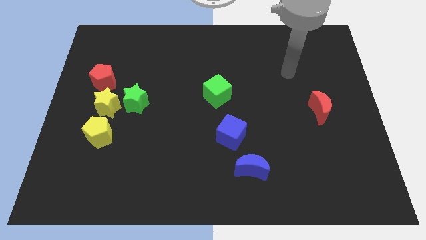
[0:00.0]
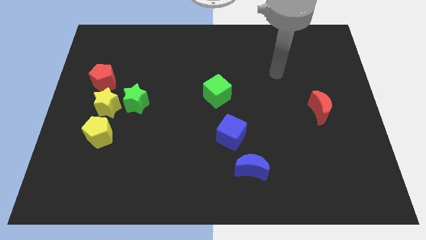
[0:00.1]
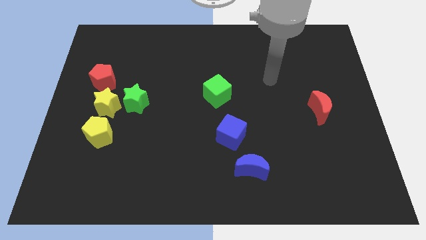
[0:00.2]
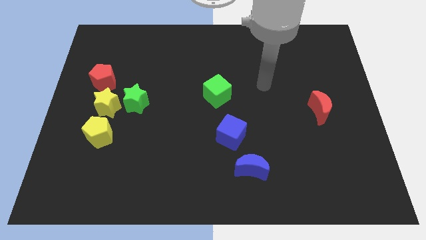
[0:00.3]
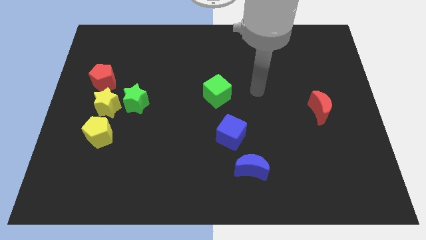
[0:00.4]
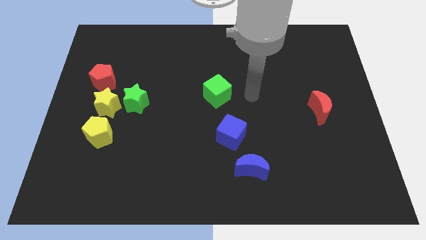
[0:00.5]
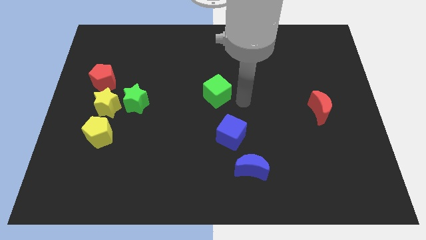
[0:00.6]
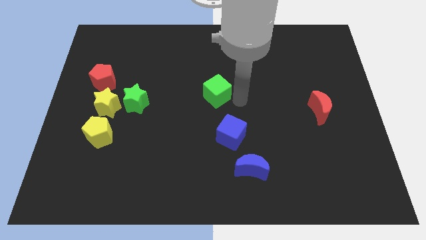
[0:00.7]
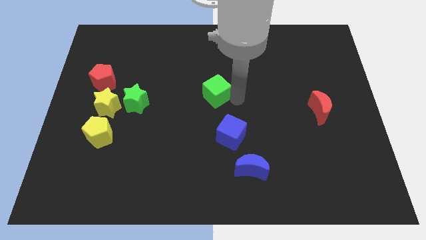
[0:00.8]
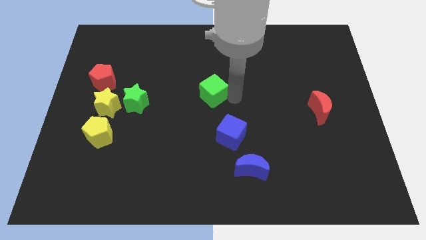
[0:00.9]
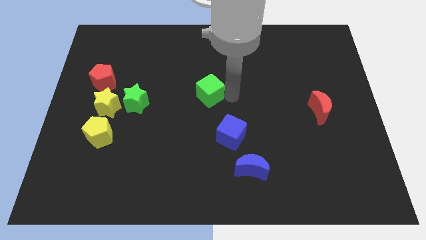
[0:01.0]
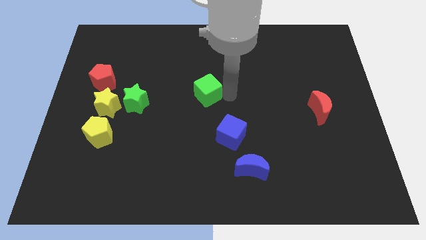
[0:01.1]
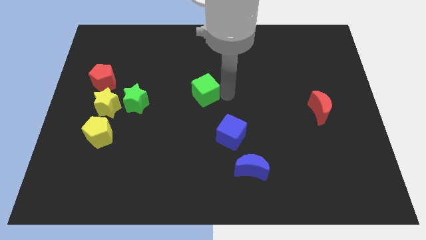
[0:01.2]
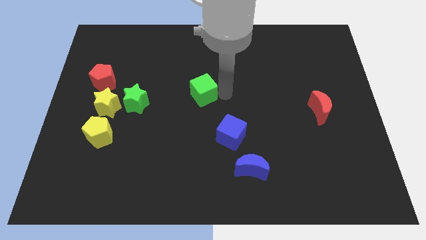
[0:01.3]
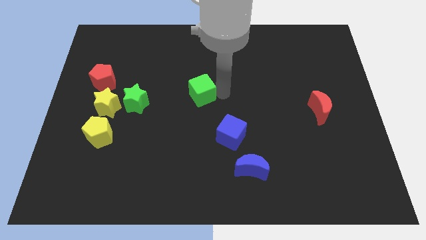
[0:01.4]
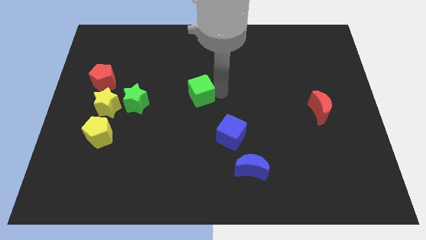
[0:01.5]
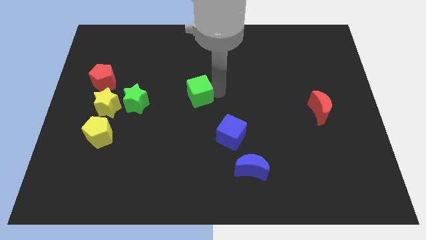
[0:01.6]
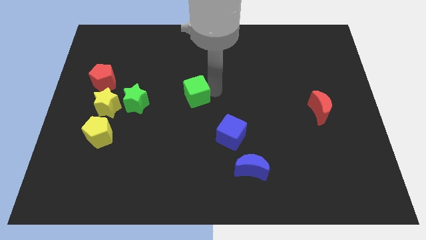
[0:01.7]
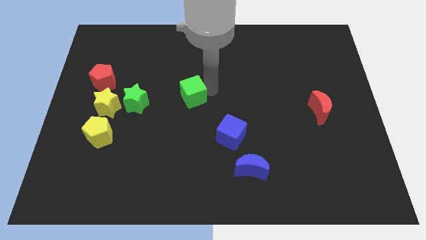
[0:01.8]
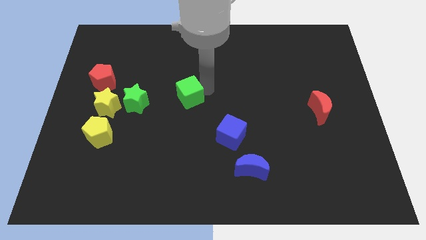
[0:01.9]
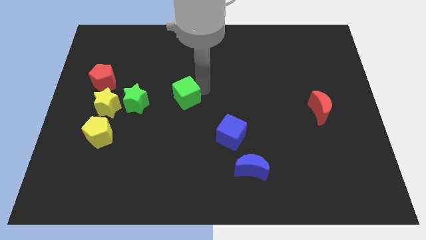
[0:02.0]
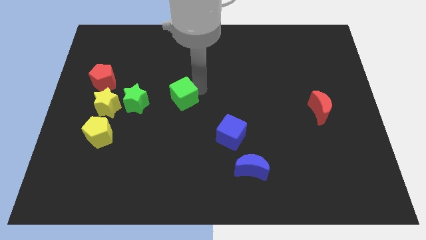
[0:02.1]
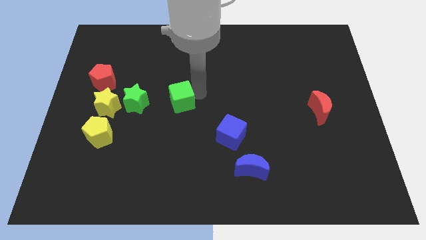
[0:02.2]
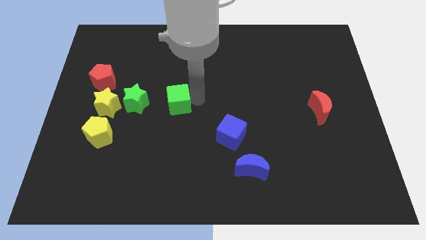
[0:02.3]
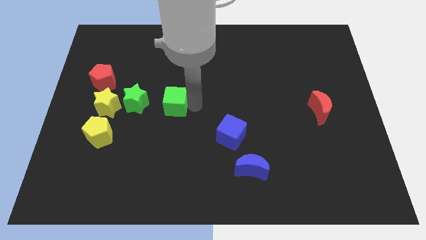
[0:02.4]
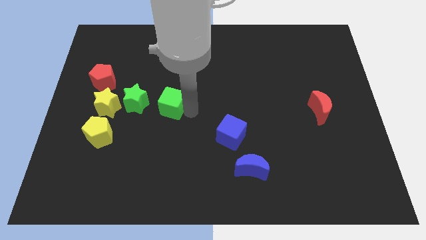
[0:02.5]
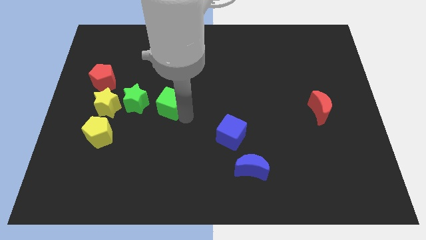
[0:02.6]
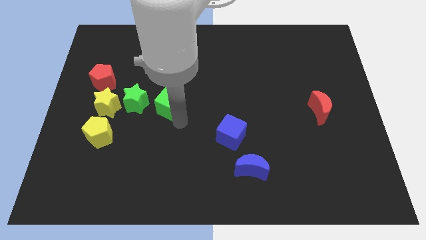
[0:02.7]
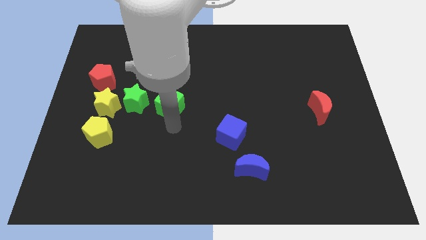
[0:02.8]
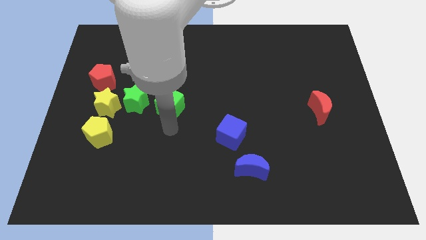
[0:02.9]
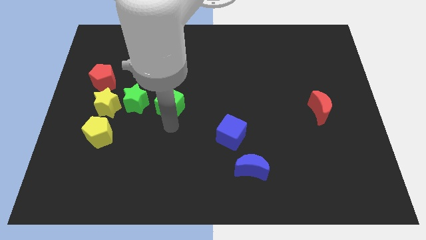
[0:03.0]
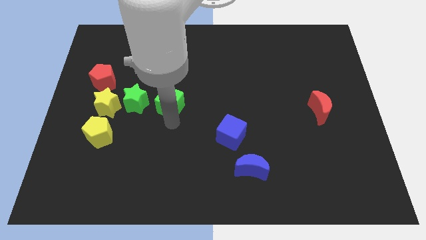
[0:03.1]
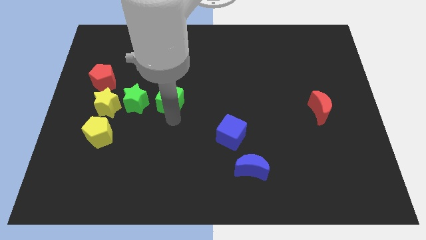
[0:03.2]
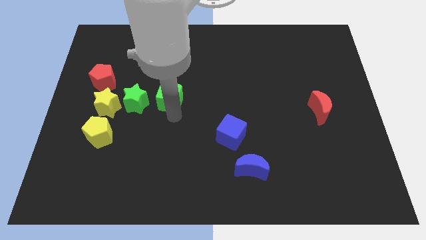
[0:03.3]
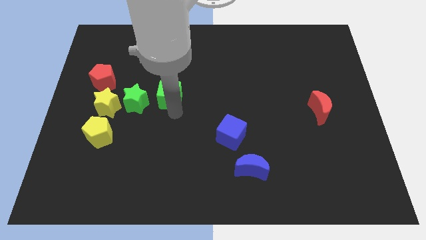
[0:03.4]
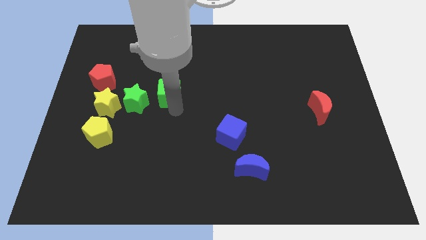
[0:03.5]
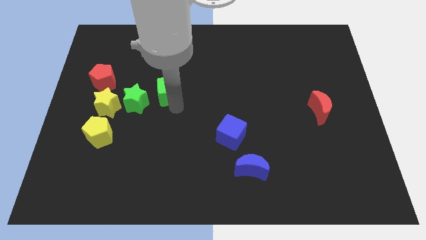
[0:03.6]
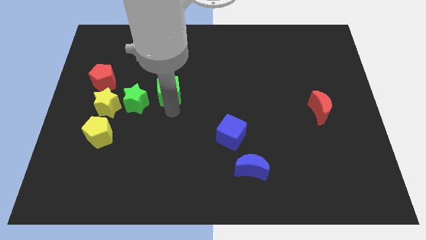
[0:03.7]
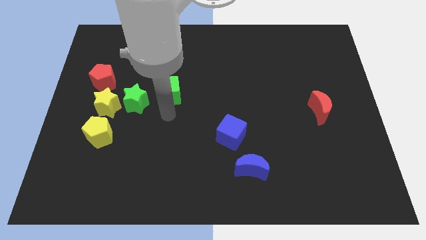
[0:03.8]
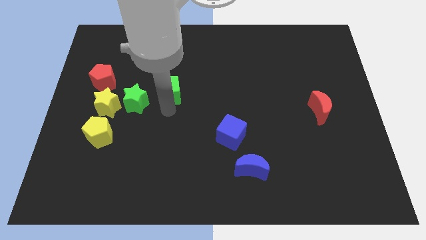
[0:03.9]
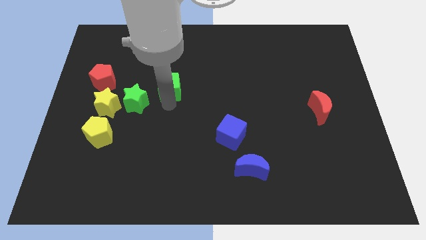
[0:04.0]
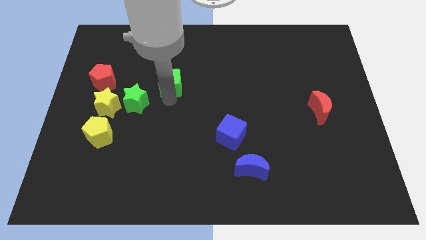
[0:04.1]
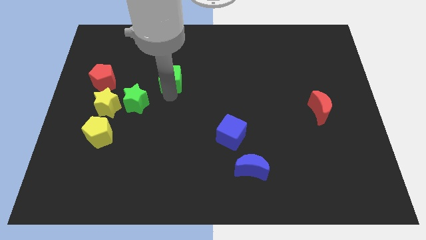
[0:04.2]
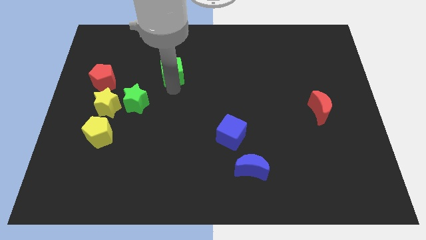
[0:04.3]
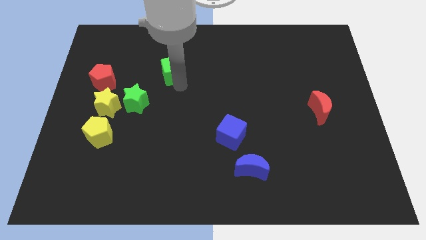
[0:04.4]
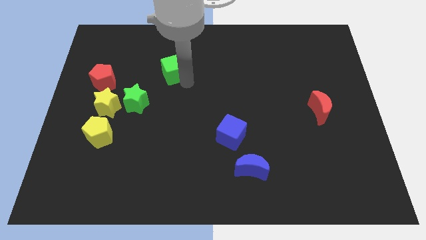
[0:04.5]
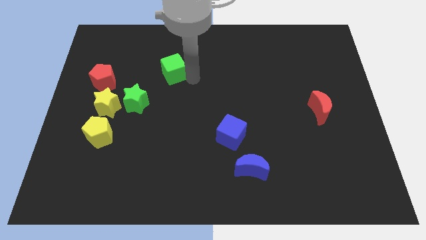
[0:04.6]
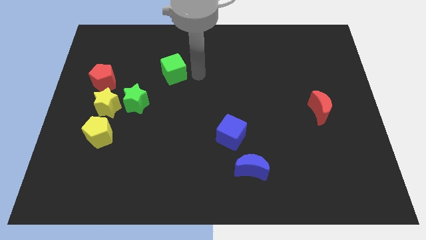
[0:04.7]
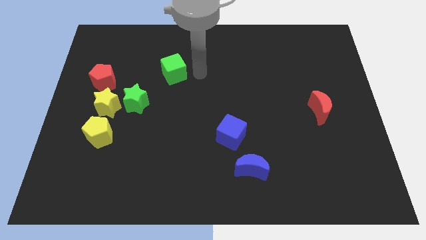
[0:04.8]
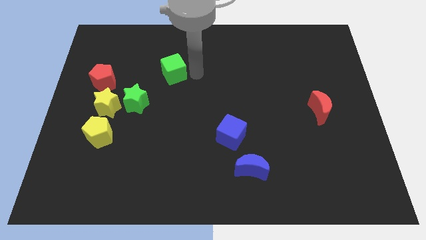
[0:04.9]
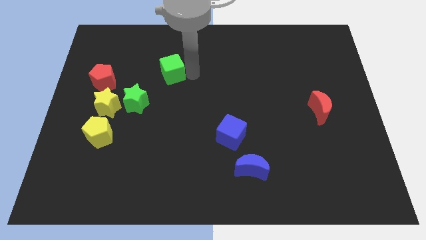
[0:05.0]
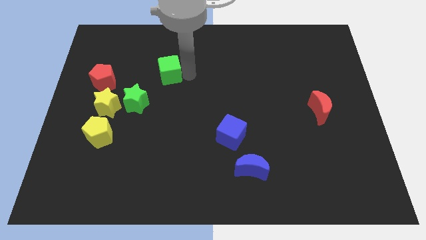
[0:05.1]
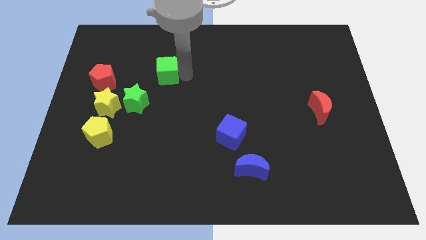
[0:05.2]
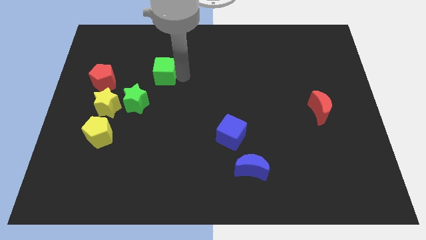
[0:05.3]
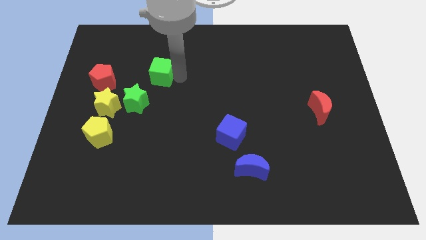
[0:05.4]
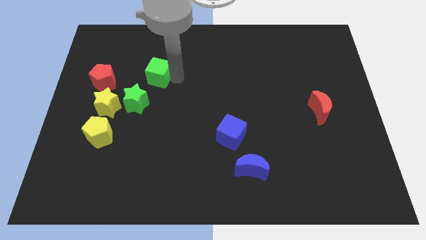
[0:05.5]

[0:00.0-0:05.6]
move the green cube above the green star

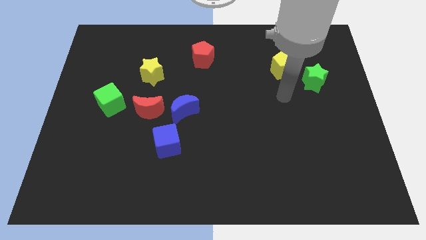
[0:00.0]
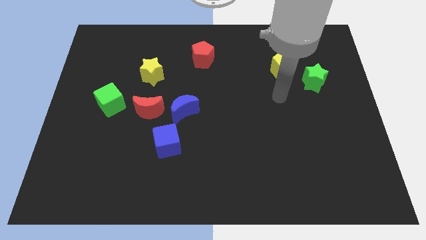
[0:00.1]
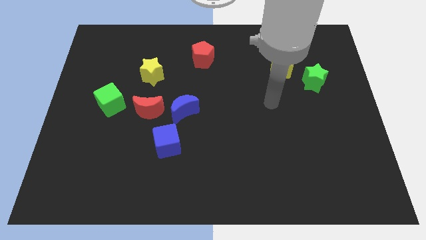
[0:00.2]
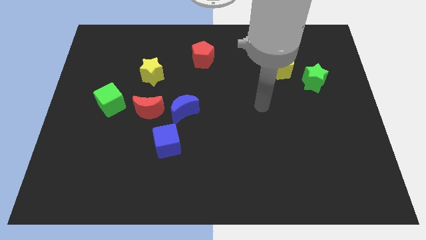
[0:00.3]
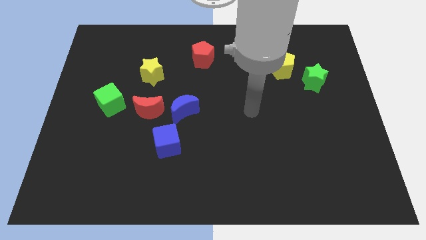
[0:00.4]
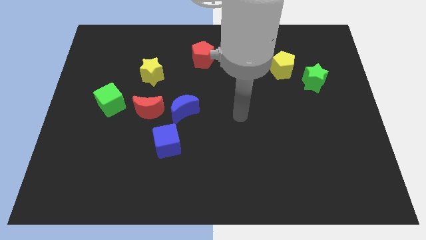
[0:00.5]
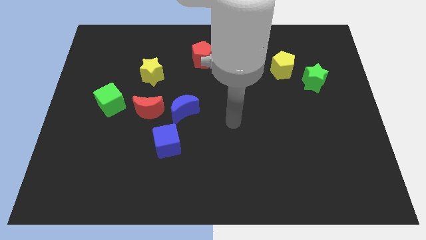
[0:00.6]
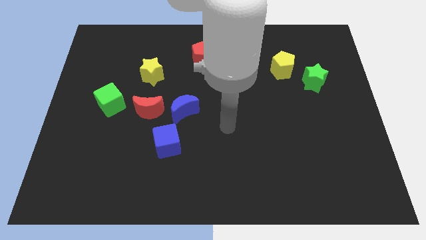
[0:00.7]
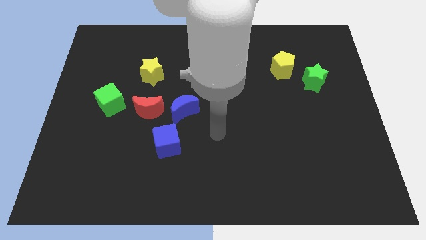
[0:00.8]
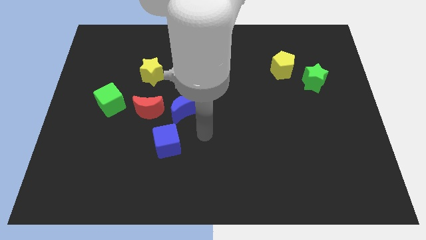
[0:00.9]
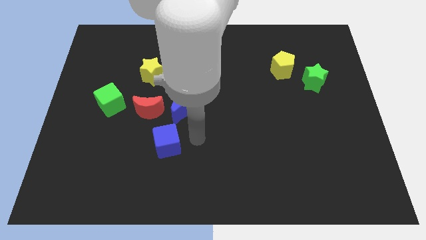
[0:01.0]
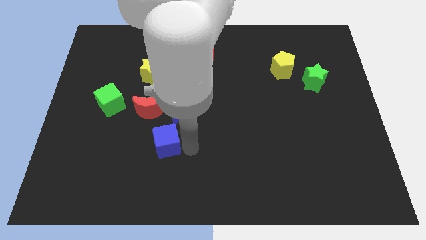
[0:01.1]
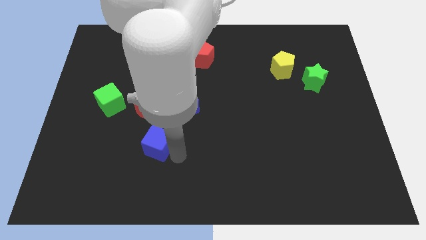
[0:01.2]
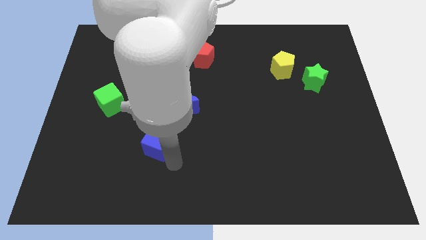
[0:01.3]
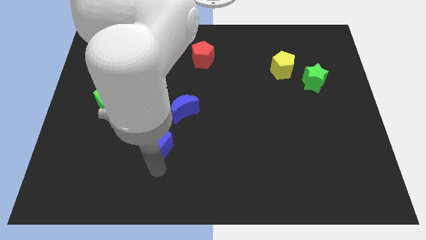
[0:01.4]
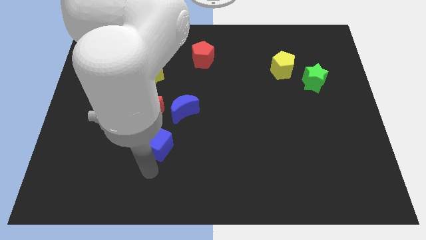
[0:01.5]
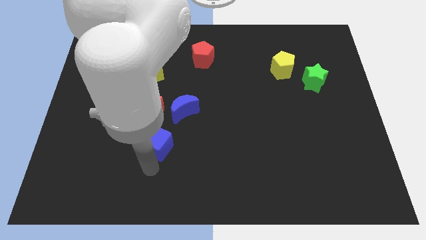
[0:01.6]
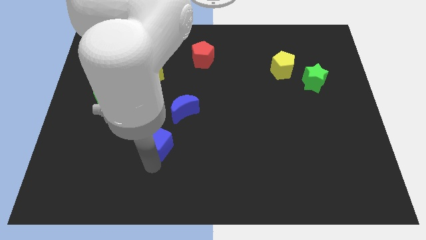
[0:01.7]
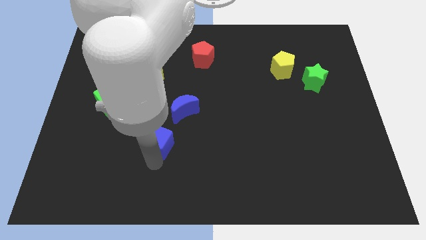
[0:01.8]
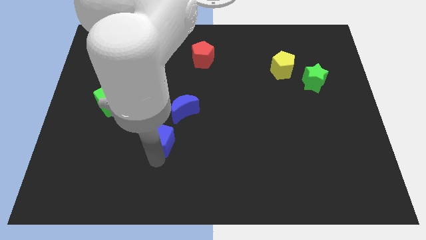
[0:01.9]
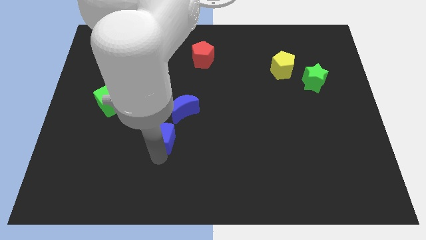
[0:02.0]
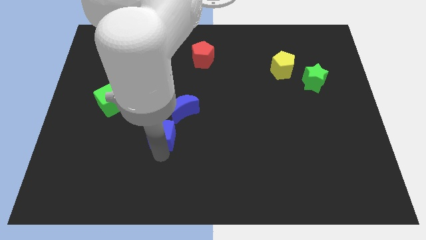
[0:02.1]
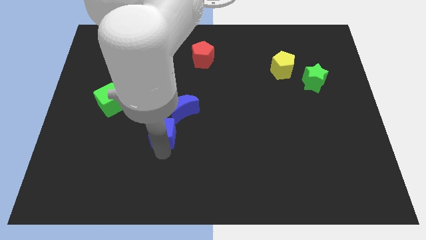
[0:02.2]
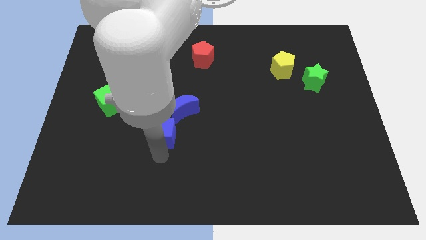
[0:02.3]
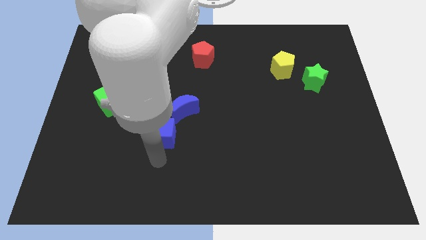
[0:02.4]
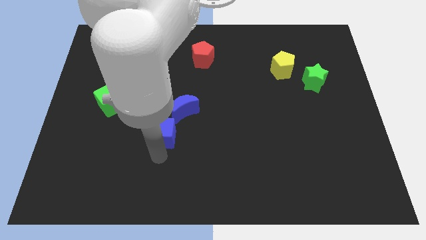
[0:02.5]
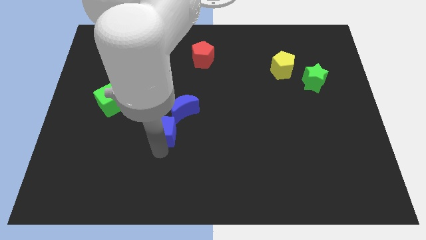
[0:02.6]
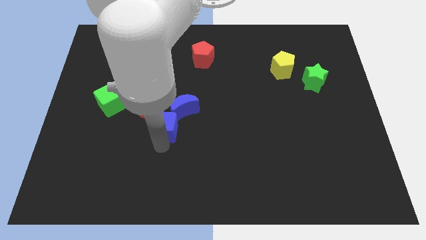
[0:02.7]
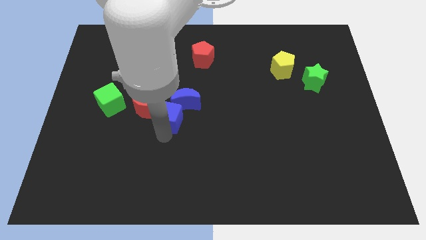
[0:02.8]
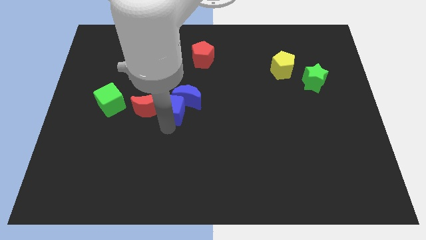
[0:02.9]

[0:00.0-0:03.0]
move the blue cube to the top right of the red moon
